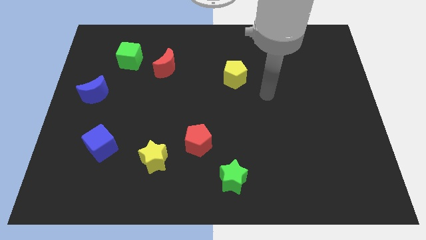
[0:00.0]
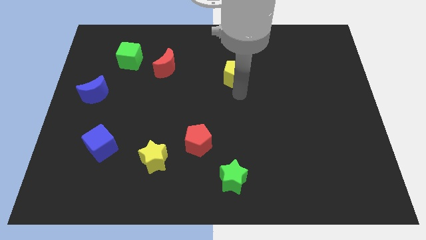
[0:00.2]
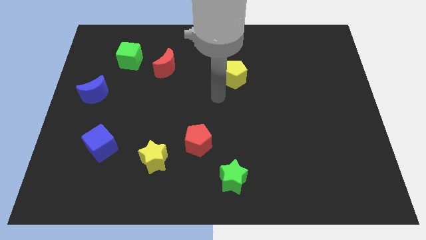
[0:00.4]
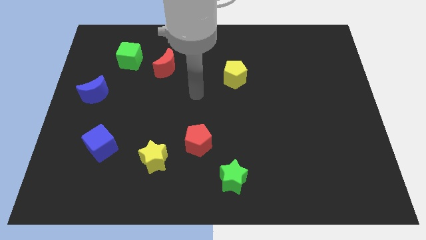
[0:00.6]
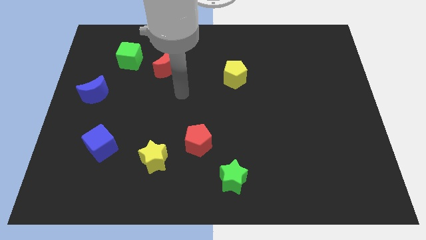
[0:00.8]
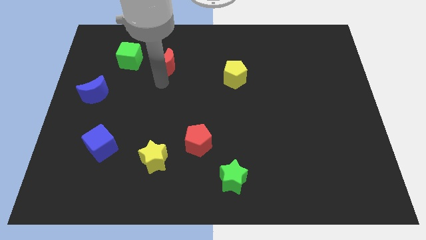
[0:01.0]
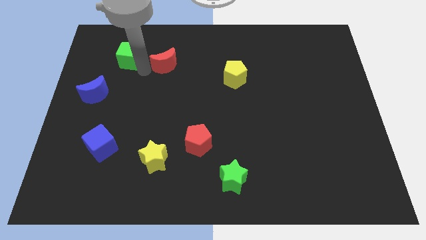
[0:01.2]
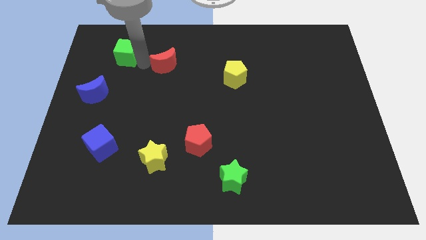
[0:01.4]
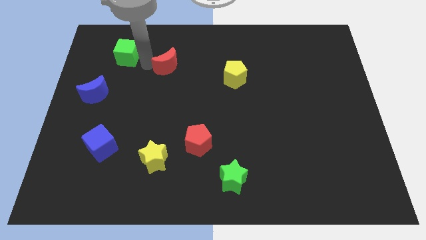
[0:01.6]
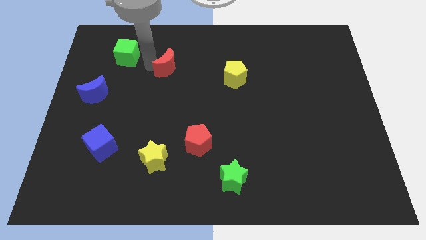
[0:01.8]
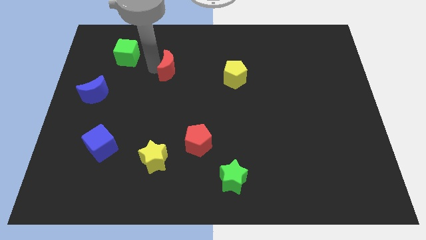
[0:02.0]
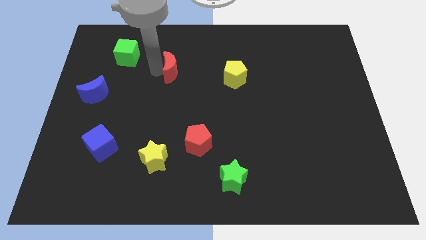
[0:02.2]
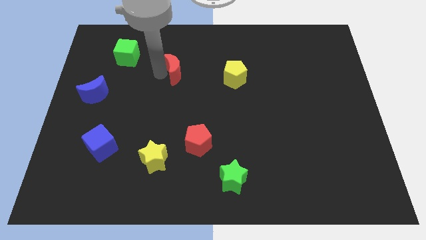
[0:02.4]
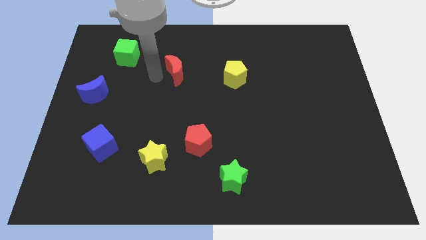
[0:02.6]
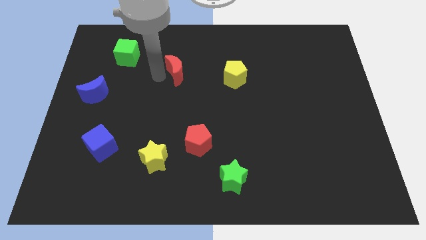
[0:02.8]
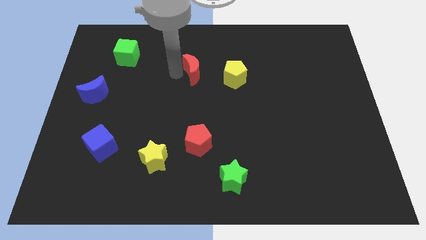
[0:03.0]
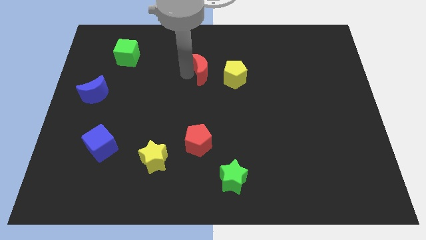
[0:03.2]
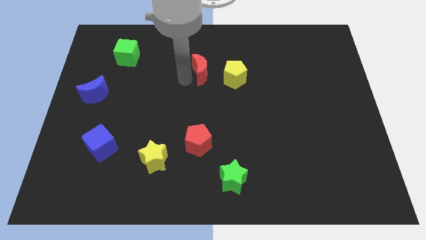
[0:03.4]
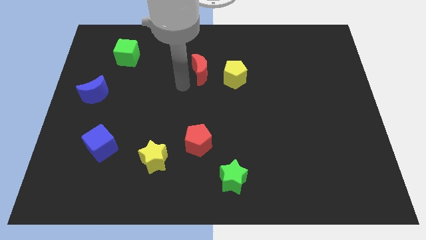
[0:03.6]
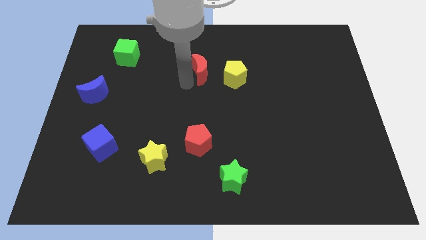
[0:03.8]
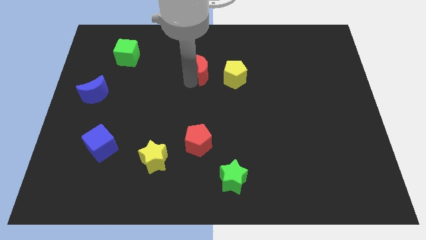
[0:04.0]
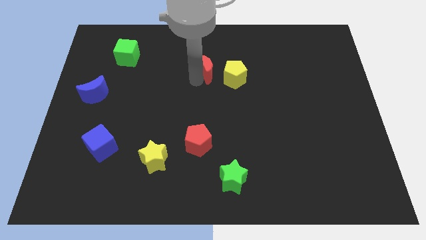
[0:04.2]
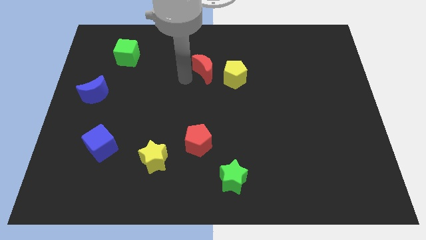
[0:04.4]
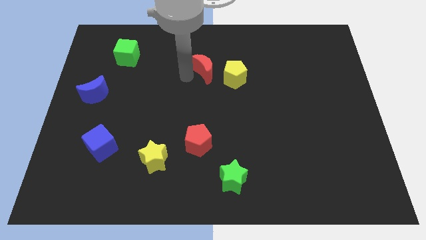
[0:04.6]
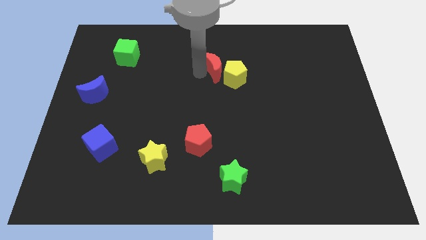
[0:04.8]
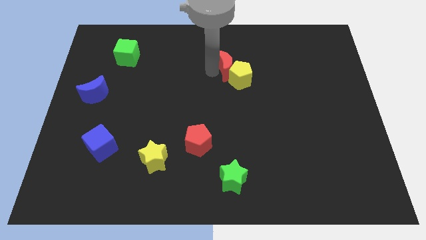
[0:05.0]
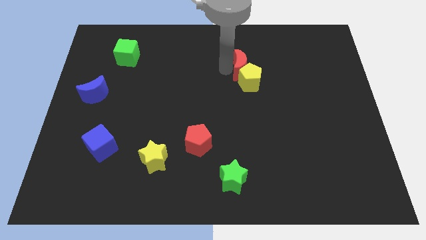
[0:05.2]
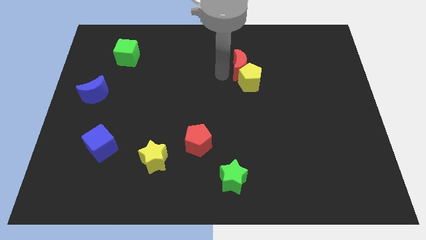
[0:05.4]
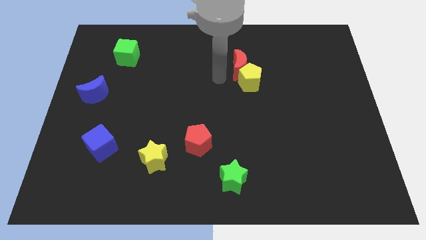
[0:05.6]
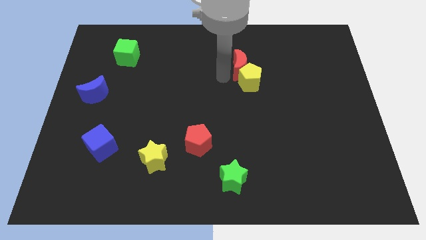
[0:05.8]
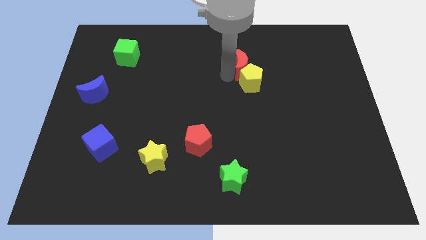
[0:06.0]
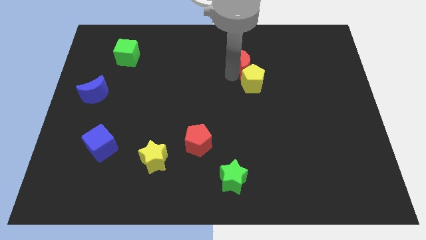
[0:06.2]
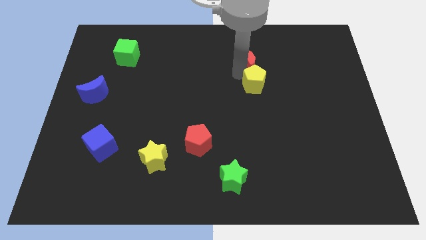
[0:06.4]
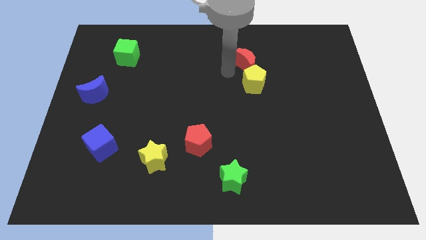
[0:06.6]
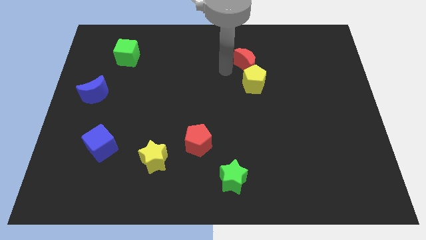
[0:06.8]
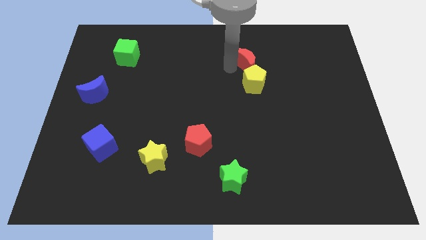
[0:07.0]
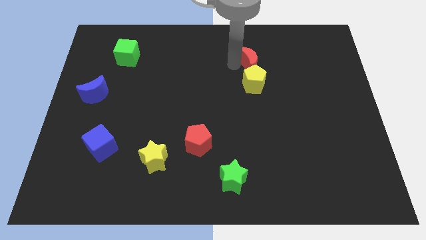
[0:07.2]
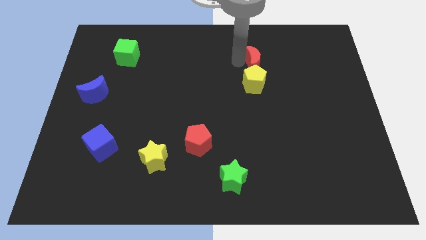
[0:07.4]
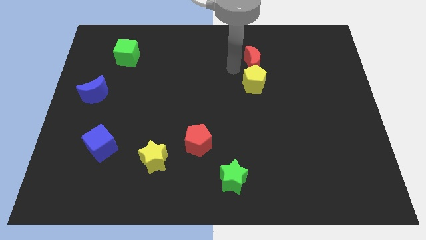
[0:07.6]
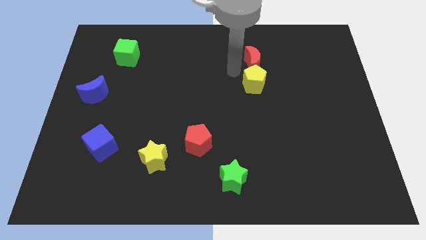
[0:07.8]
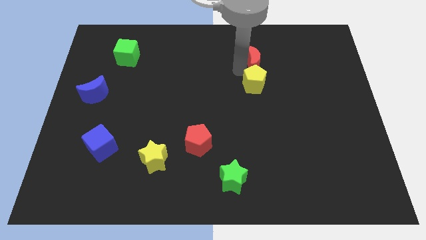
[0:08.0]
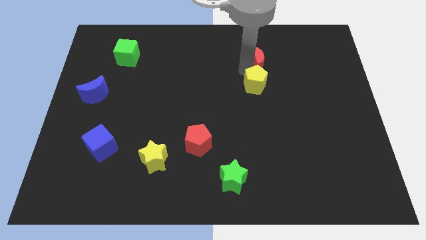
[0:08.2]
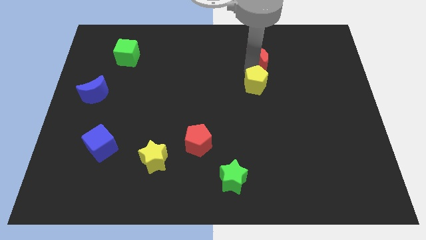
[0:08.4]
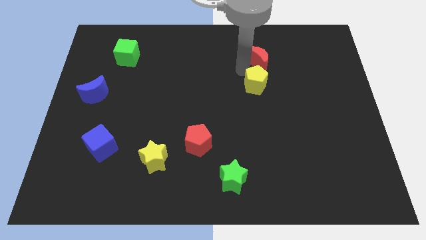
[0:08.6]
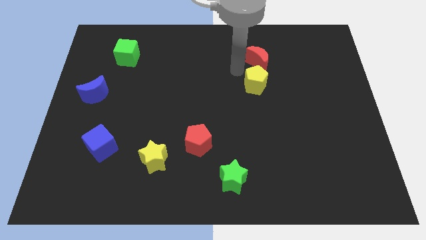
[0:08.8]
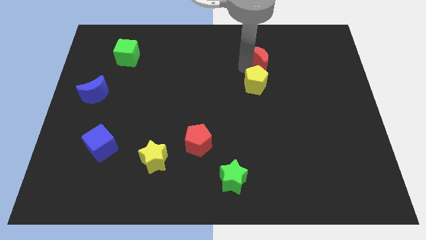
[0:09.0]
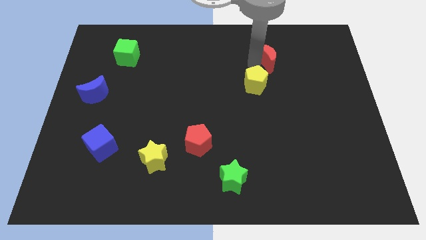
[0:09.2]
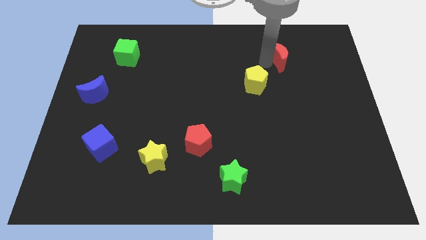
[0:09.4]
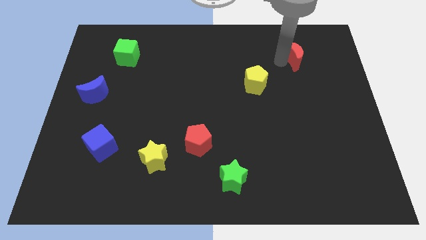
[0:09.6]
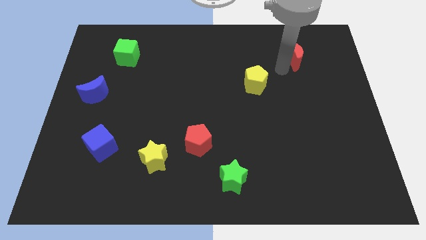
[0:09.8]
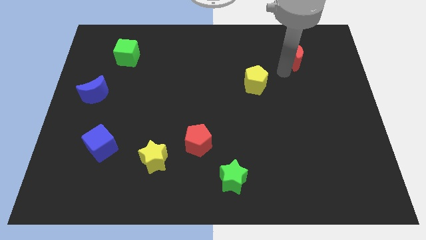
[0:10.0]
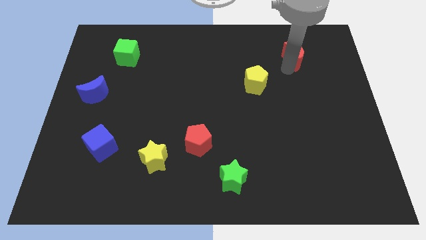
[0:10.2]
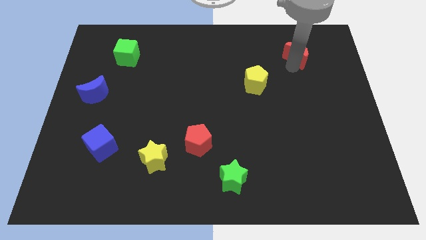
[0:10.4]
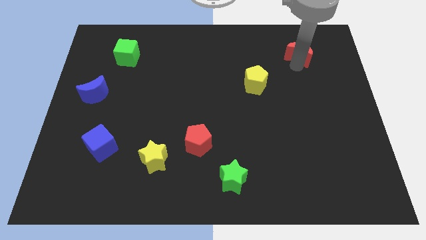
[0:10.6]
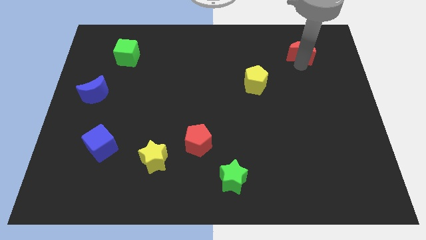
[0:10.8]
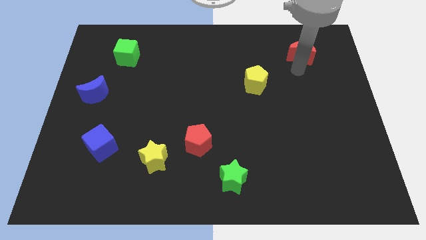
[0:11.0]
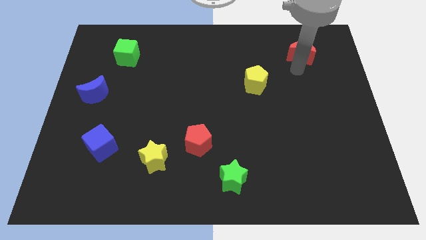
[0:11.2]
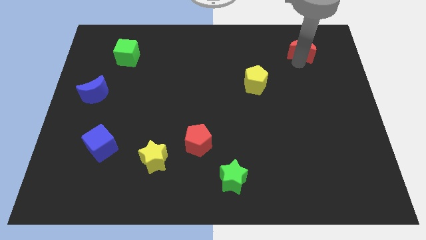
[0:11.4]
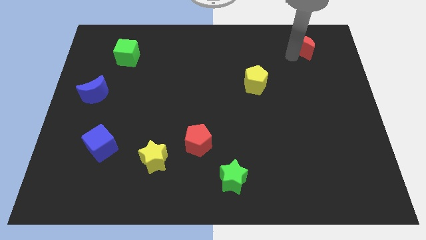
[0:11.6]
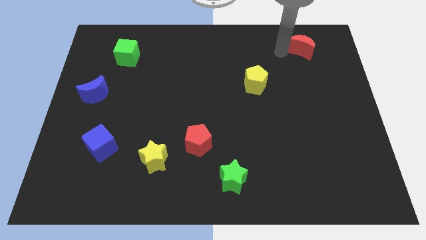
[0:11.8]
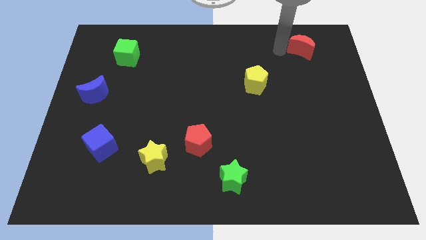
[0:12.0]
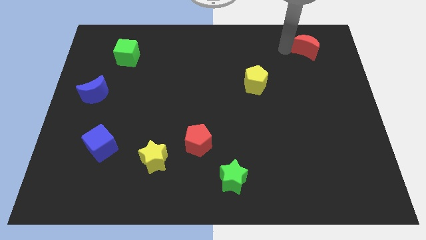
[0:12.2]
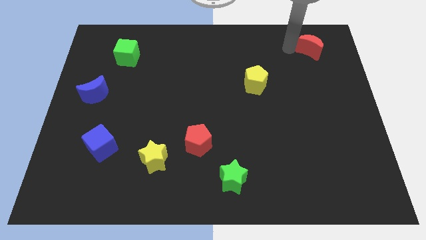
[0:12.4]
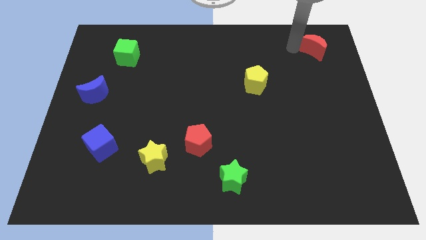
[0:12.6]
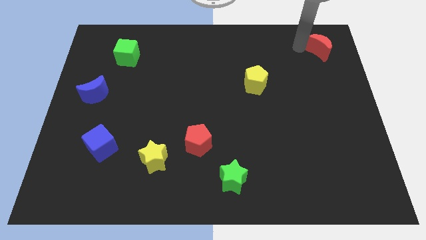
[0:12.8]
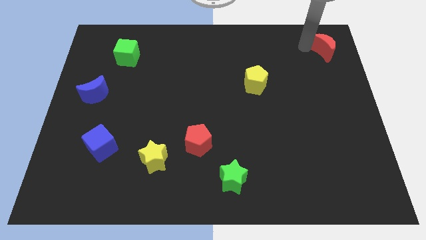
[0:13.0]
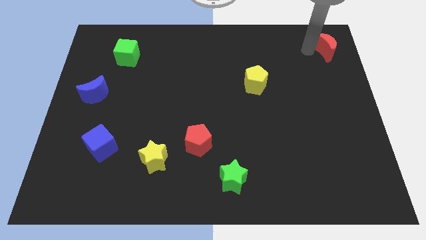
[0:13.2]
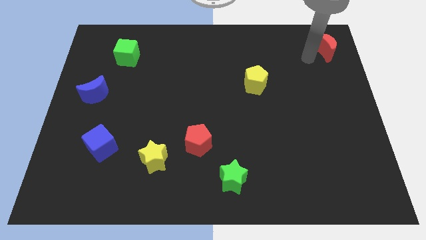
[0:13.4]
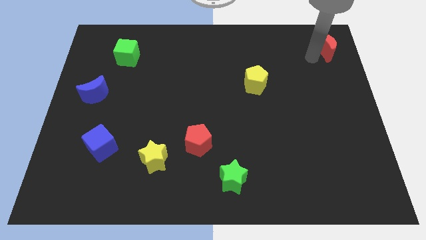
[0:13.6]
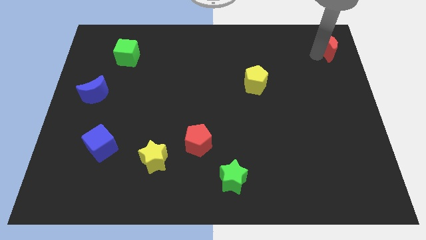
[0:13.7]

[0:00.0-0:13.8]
move the red moon to the top right corner
